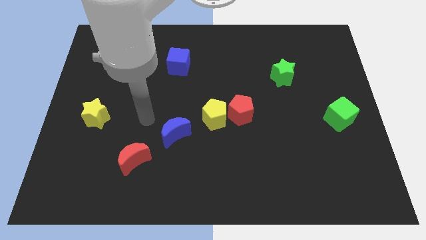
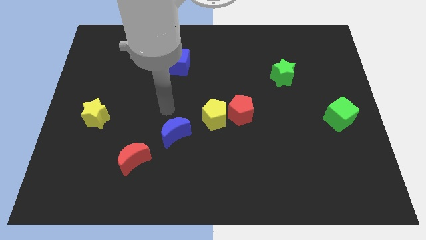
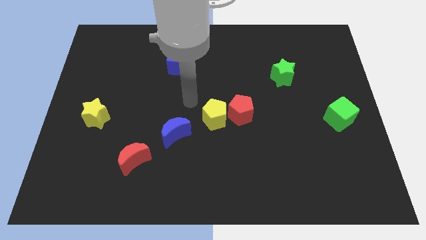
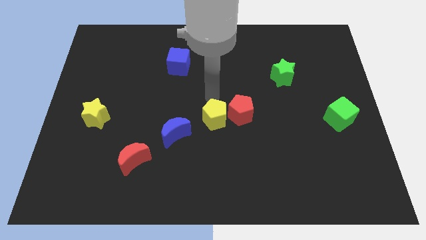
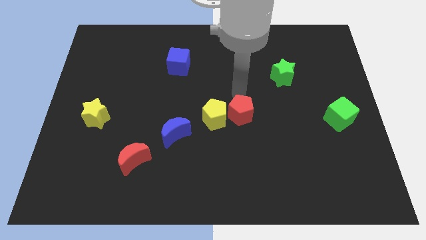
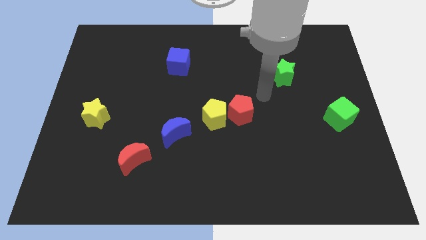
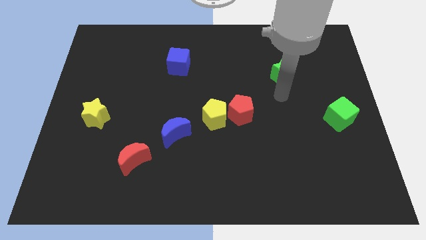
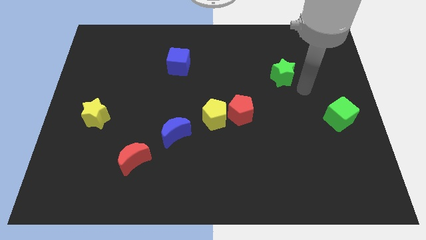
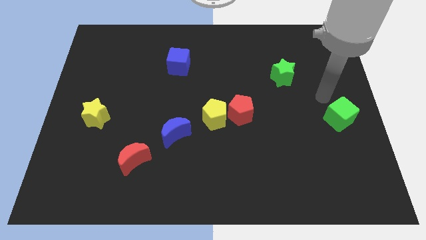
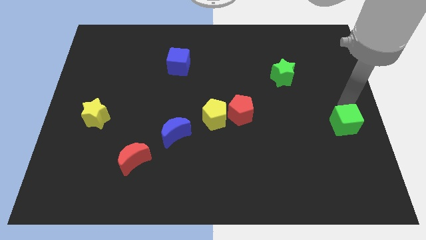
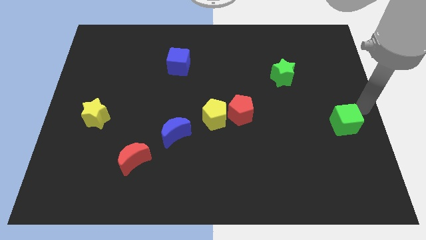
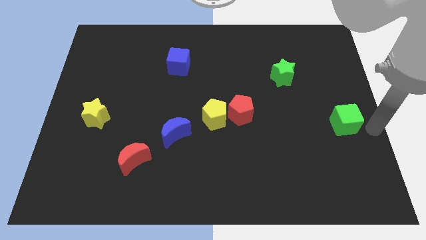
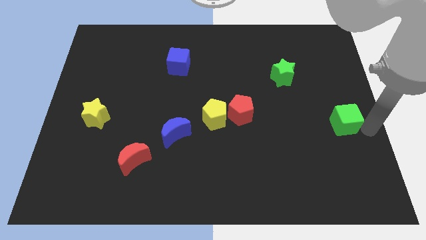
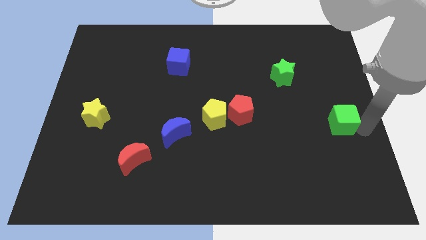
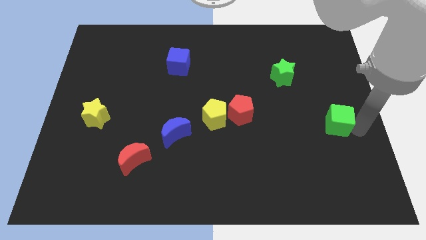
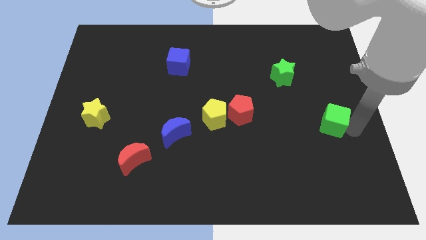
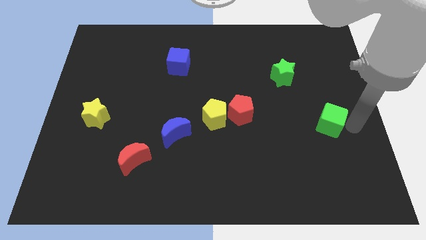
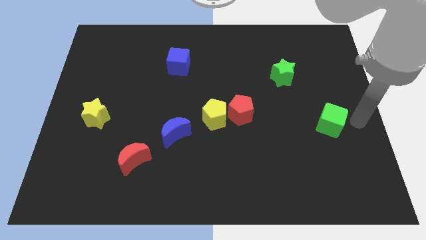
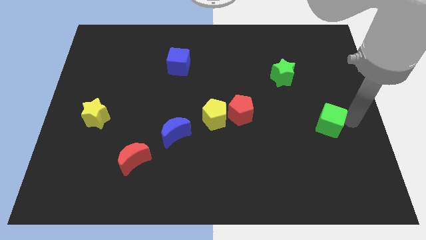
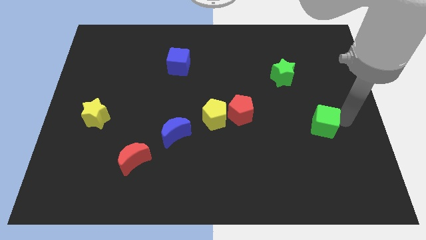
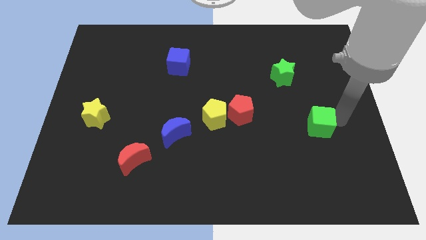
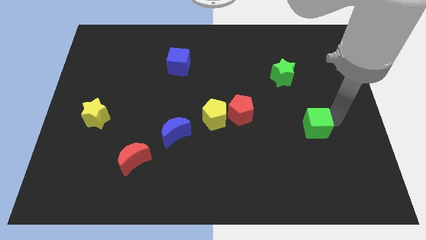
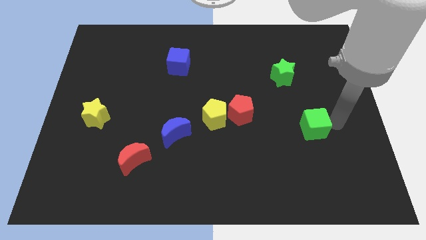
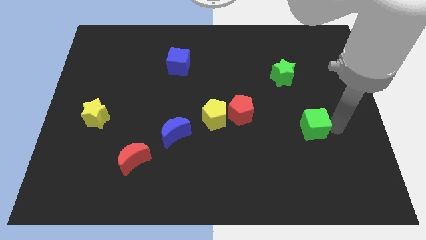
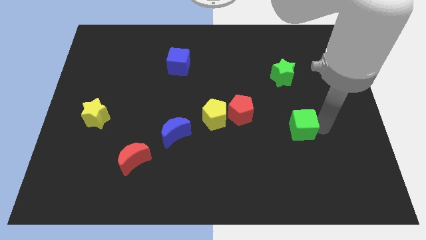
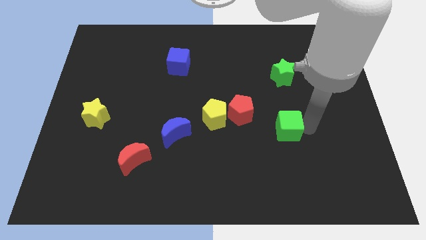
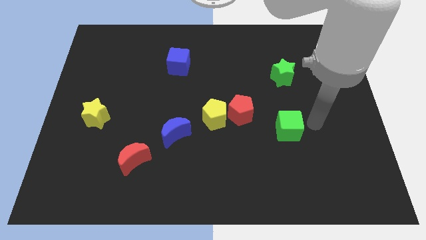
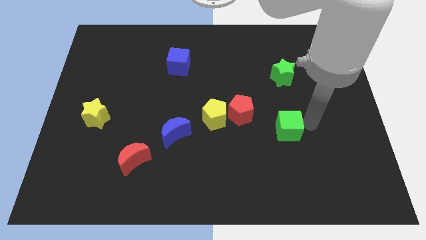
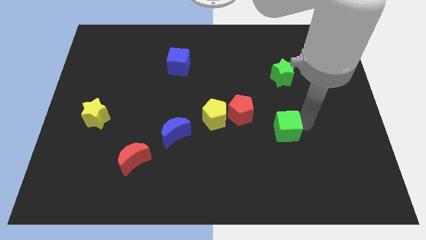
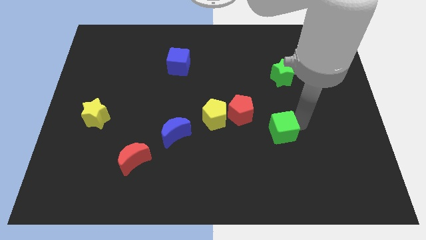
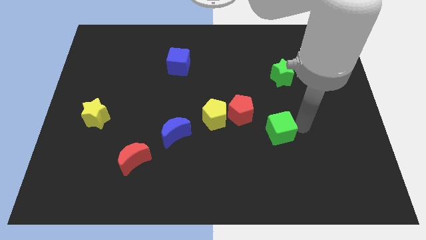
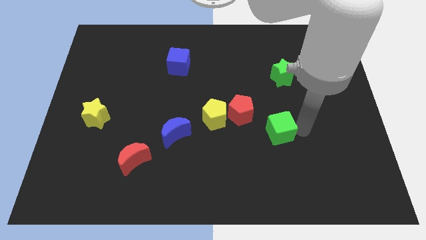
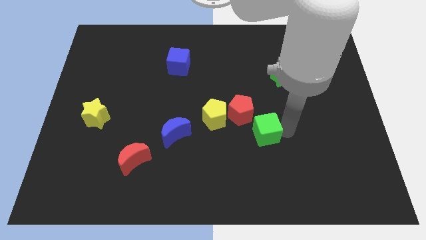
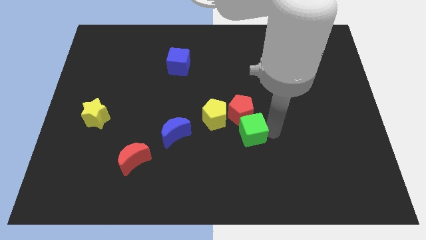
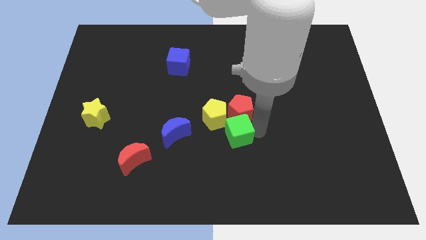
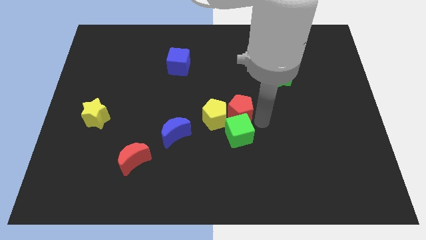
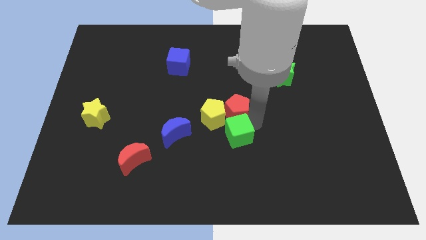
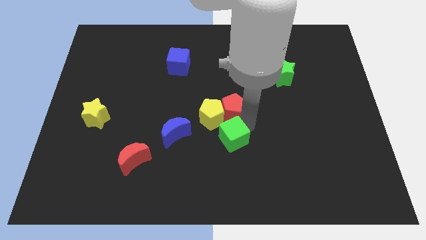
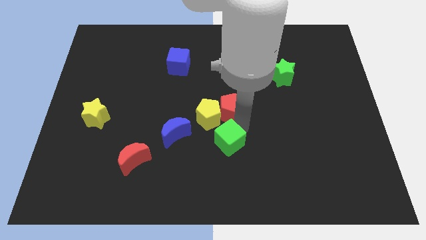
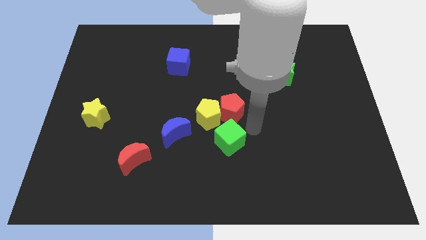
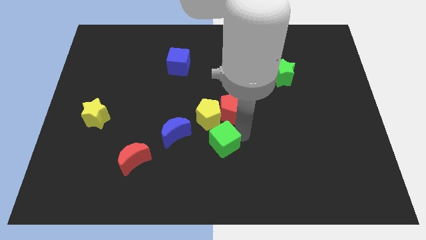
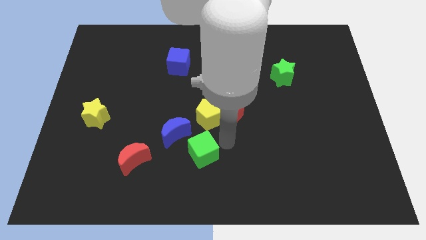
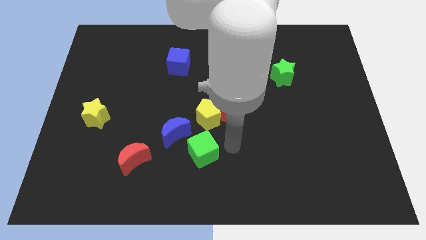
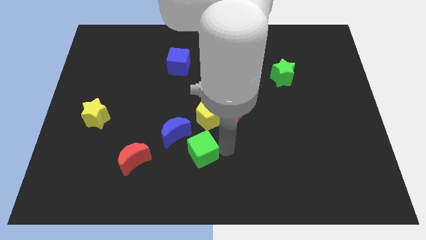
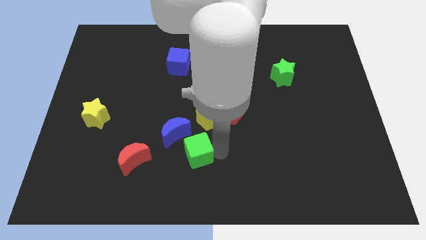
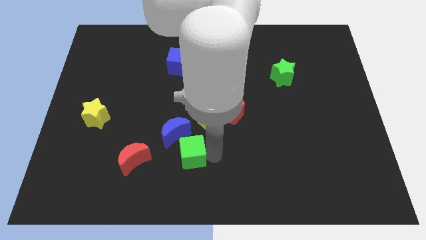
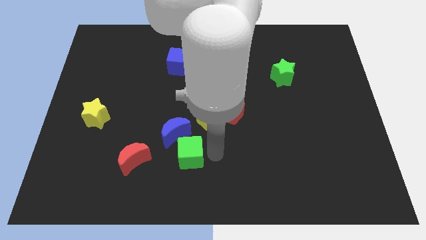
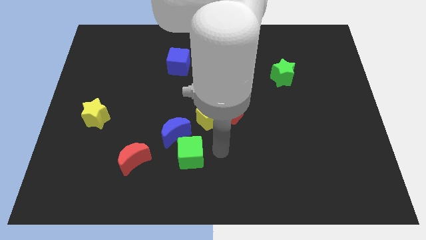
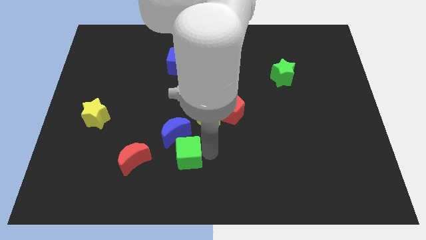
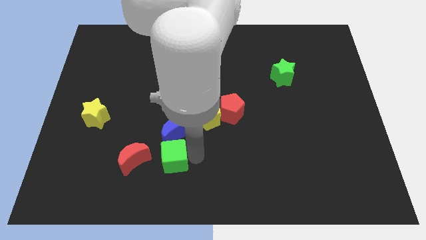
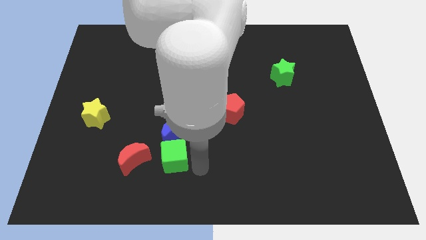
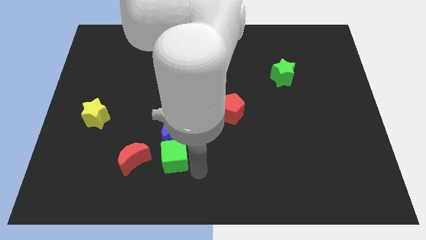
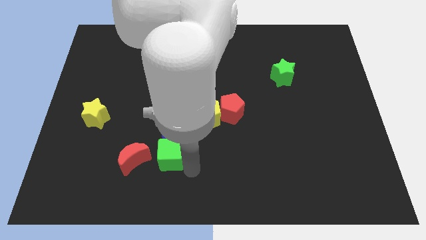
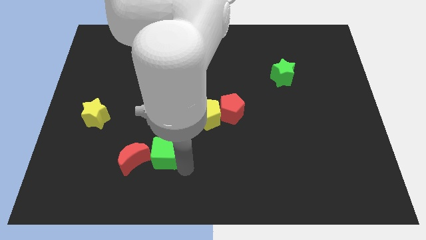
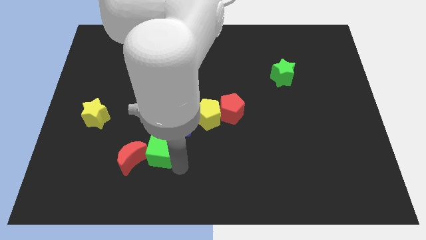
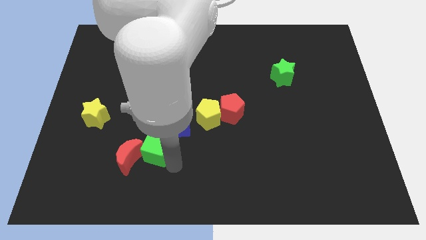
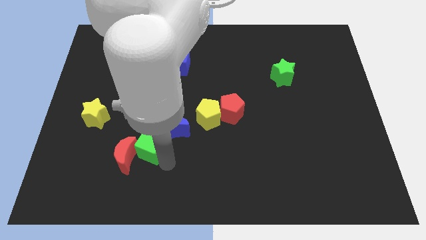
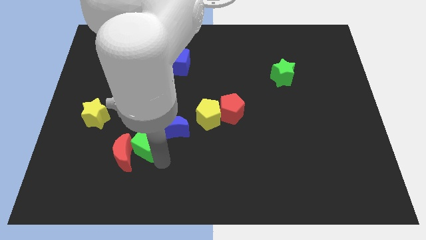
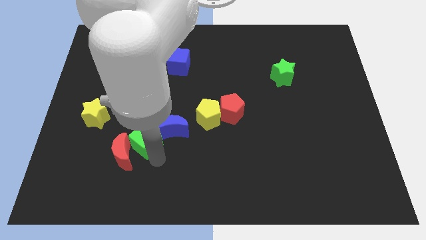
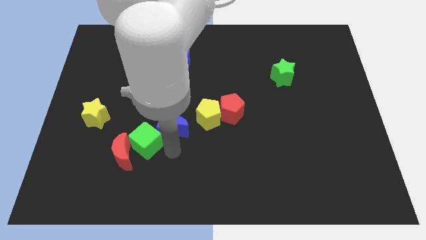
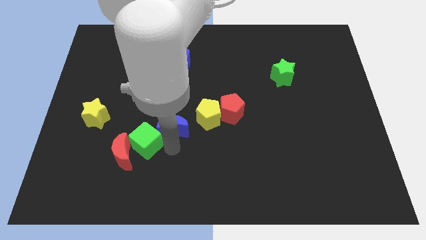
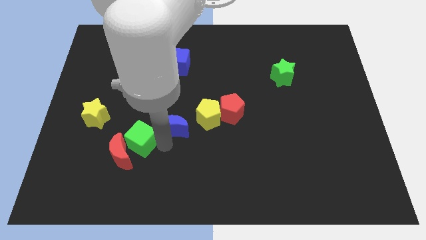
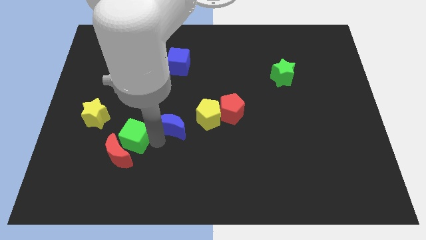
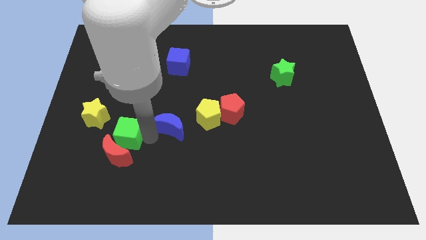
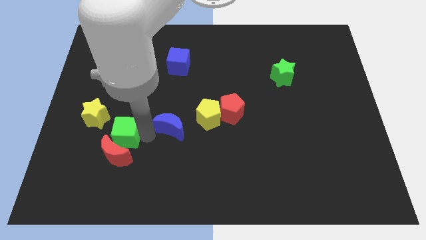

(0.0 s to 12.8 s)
slide the green cube diagonally up and to the left of the red moon

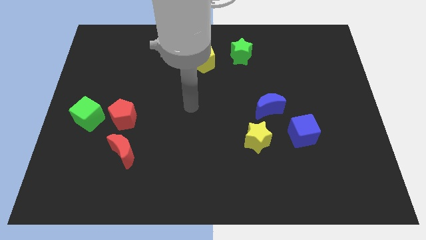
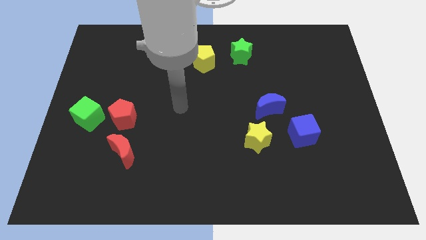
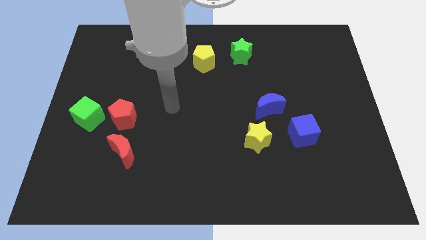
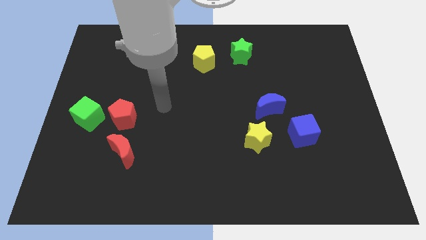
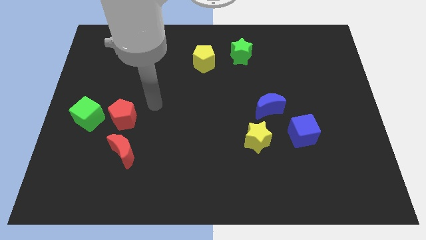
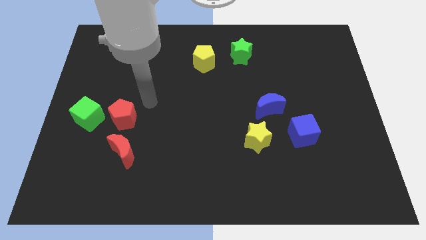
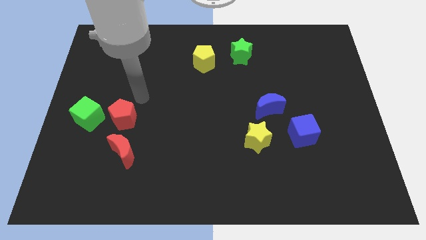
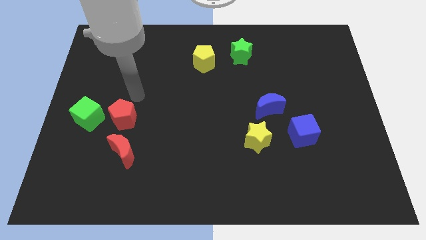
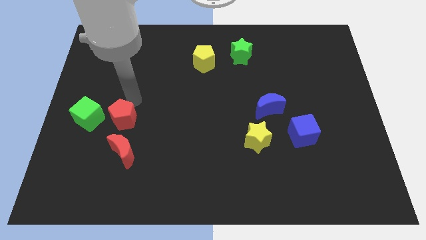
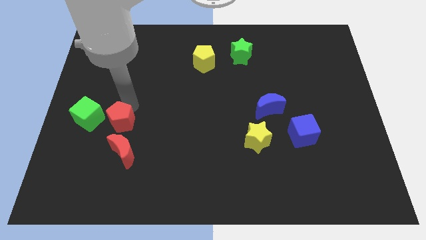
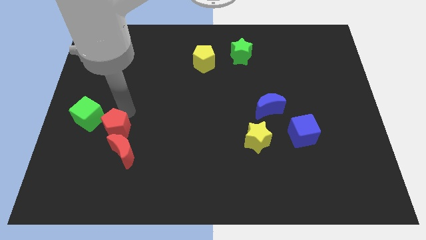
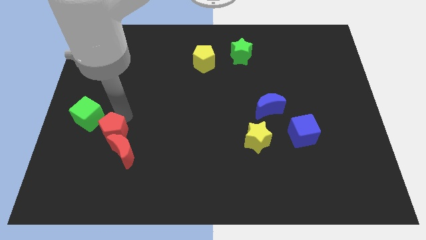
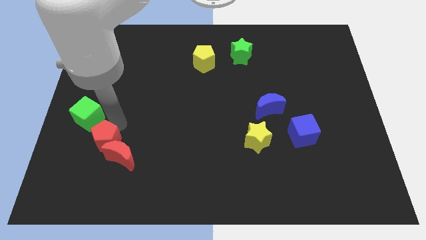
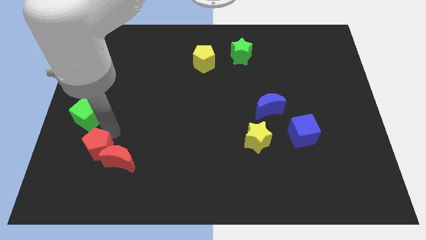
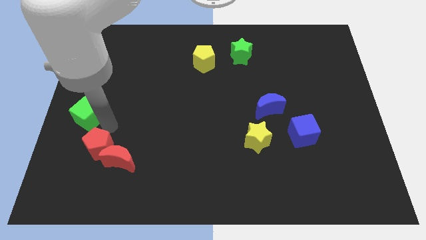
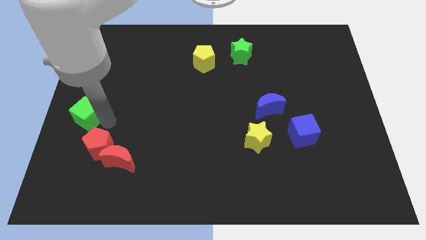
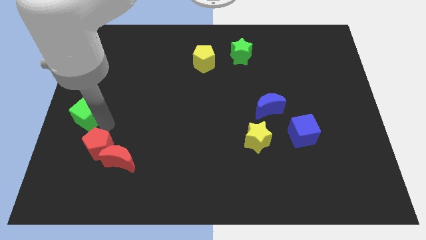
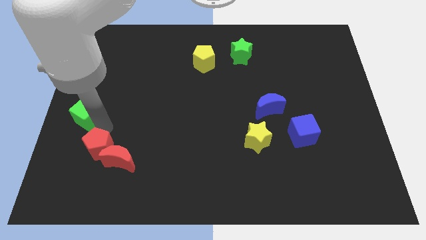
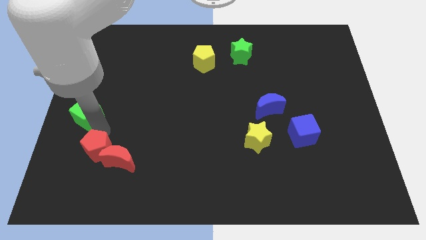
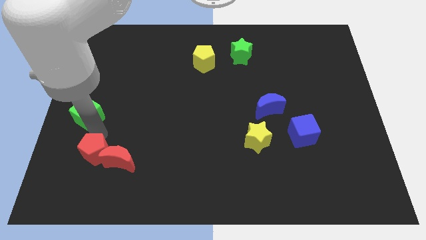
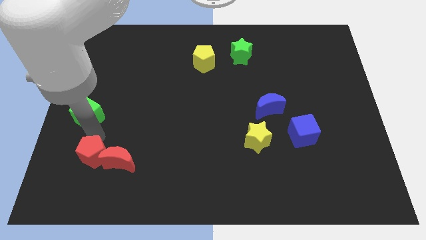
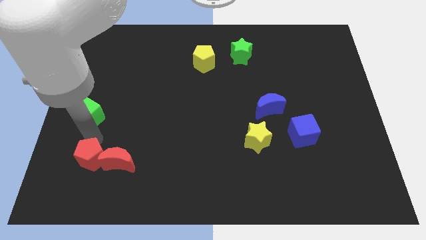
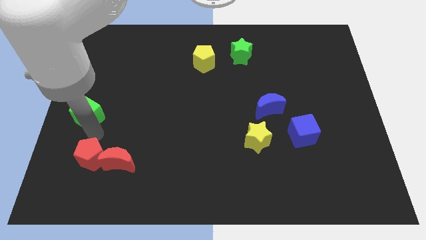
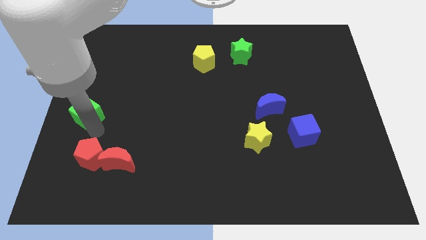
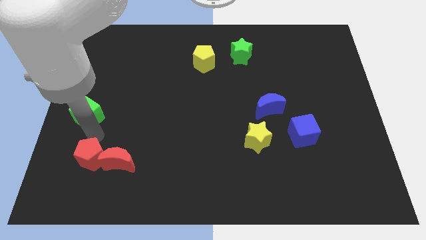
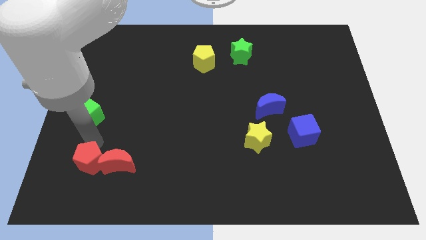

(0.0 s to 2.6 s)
put the red pentagon to the bottom left of the red moon
